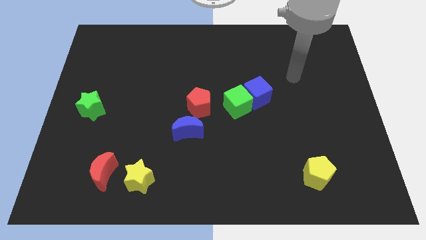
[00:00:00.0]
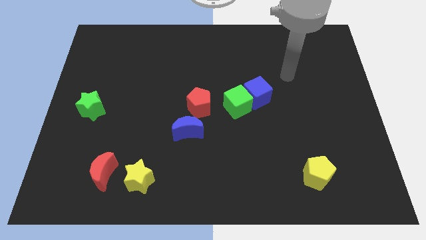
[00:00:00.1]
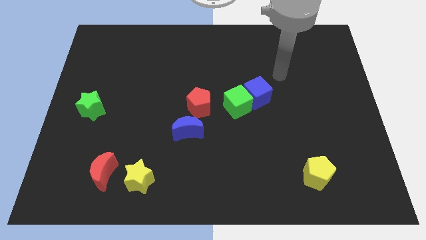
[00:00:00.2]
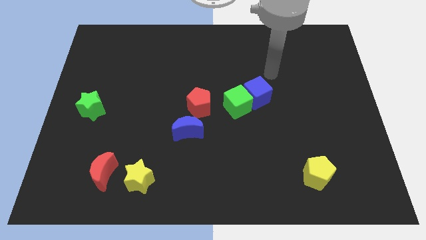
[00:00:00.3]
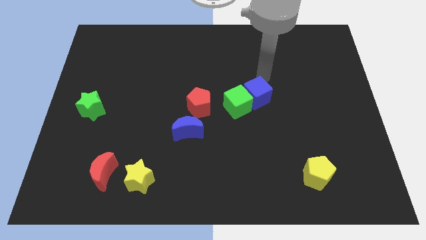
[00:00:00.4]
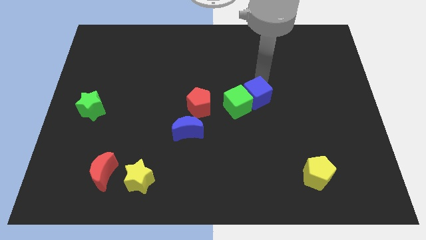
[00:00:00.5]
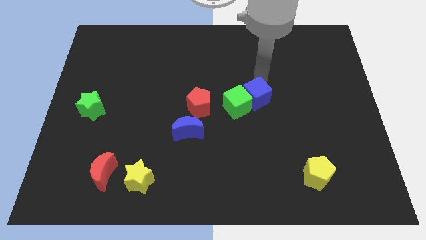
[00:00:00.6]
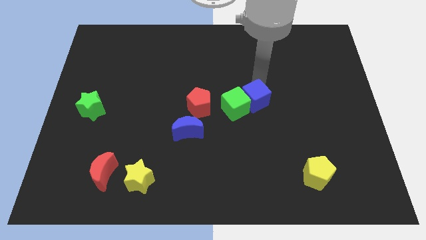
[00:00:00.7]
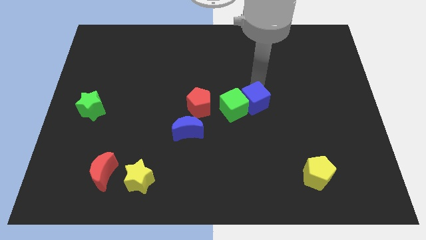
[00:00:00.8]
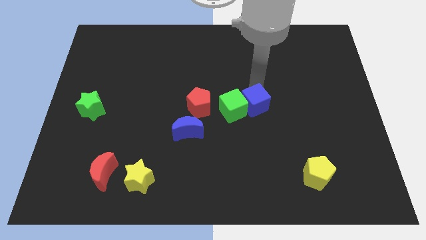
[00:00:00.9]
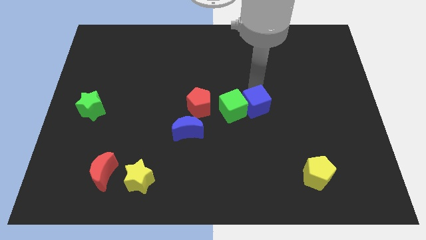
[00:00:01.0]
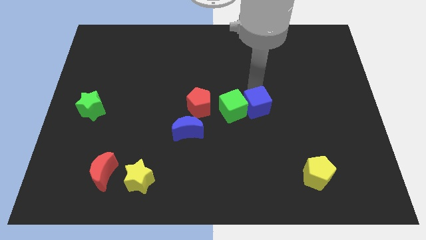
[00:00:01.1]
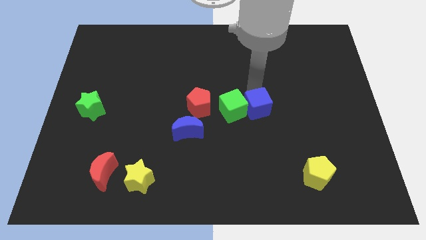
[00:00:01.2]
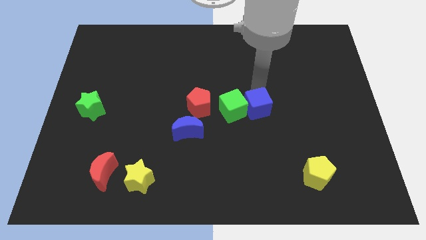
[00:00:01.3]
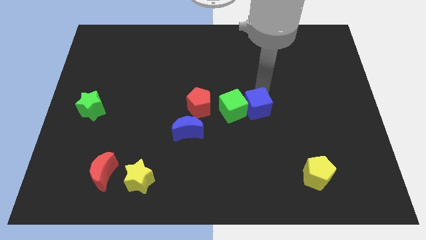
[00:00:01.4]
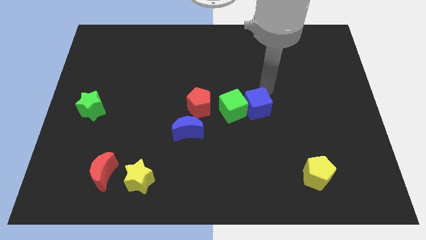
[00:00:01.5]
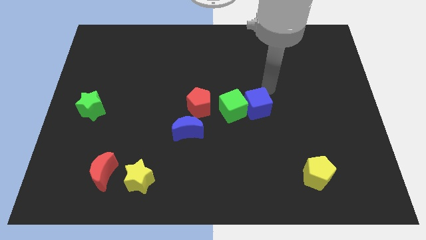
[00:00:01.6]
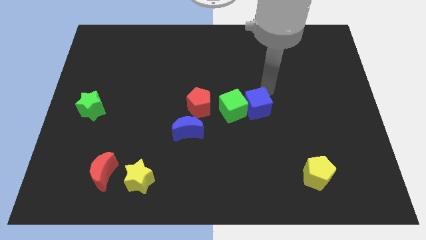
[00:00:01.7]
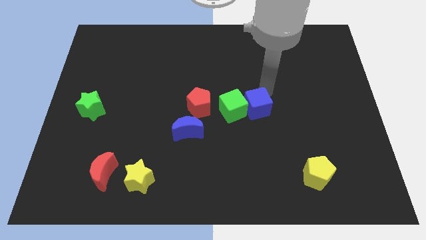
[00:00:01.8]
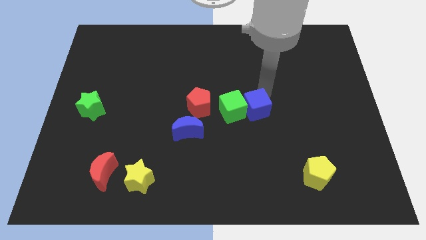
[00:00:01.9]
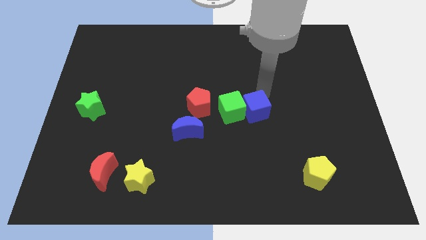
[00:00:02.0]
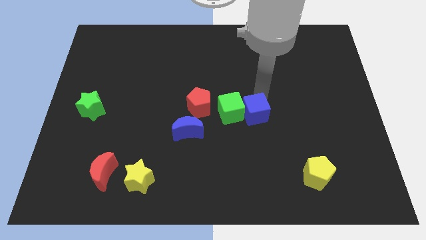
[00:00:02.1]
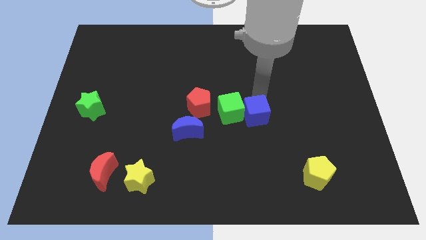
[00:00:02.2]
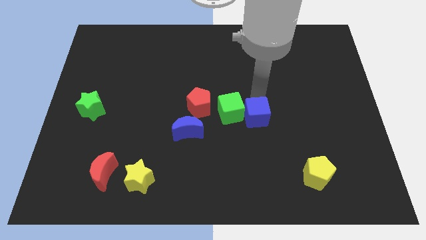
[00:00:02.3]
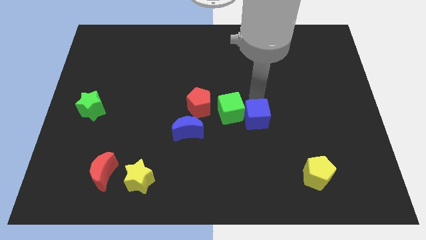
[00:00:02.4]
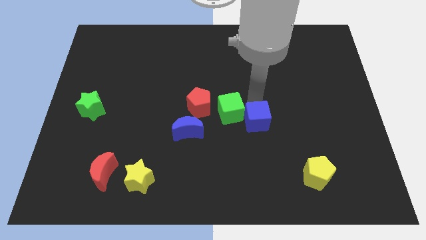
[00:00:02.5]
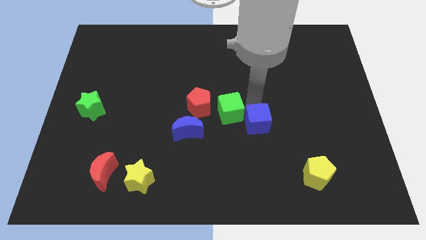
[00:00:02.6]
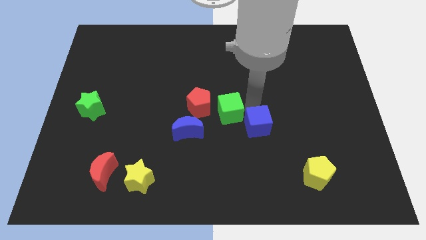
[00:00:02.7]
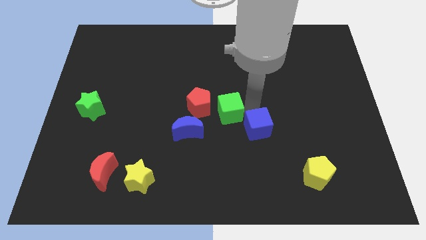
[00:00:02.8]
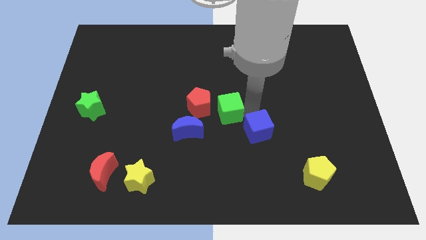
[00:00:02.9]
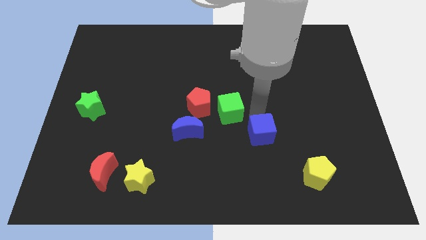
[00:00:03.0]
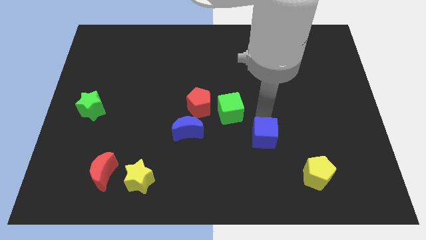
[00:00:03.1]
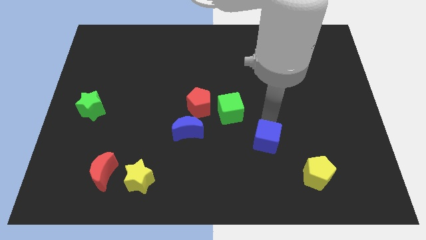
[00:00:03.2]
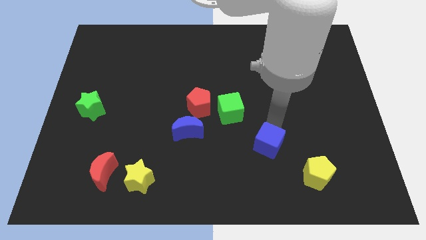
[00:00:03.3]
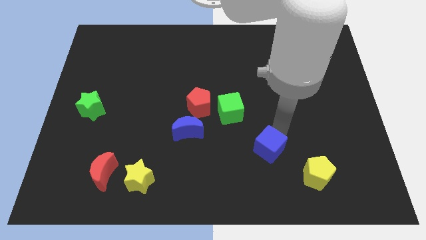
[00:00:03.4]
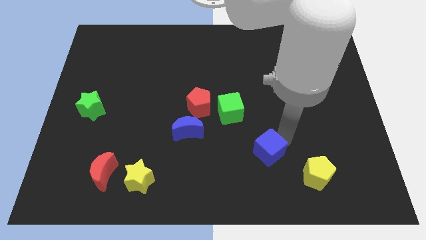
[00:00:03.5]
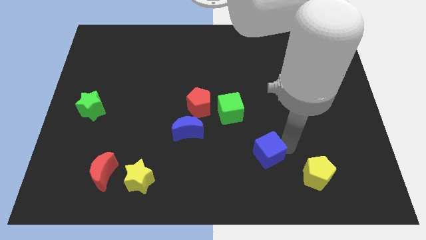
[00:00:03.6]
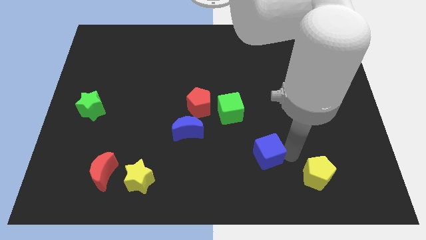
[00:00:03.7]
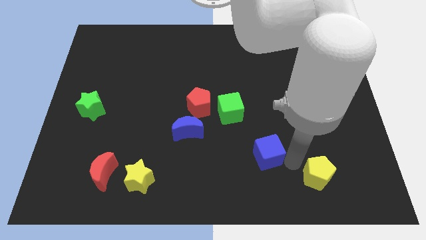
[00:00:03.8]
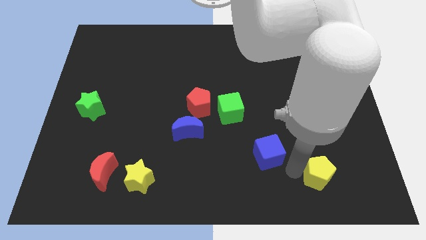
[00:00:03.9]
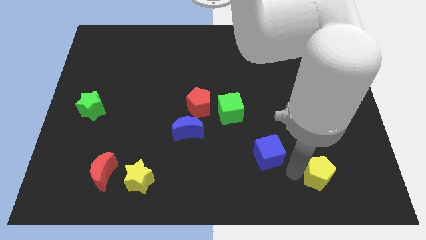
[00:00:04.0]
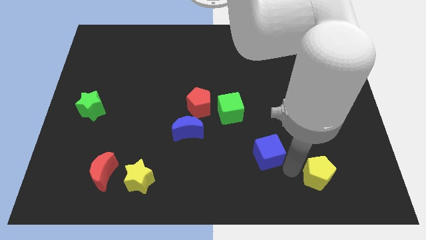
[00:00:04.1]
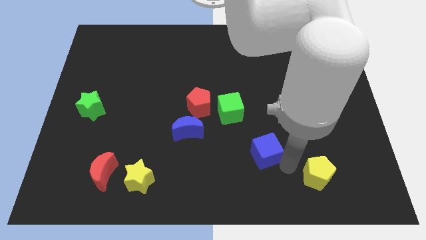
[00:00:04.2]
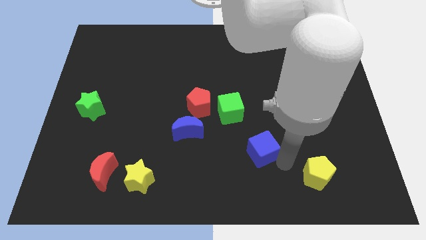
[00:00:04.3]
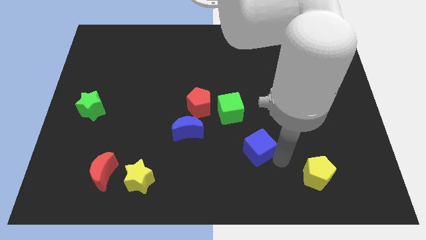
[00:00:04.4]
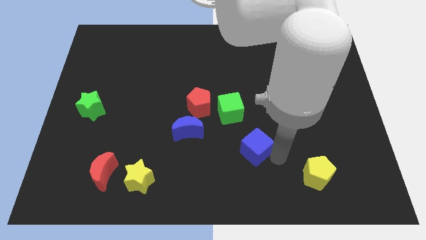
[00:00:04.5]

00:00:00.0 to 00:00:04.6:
slide the blue cube a little bit downwards and then to the left

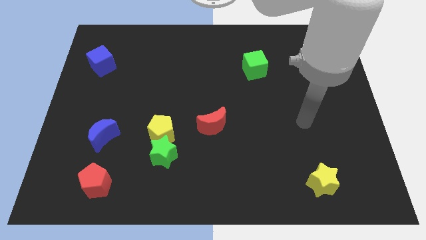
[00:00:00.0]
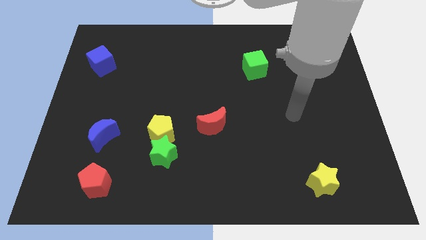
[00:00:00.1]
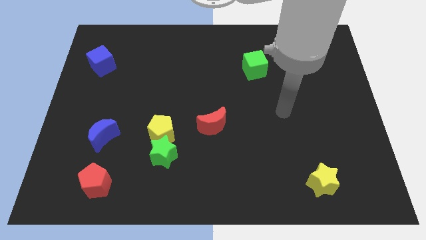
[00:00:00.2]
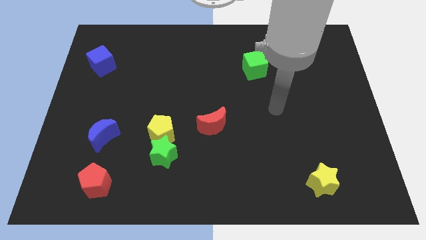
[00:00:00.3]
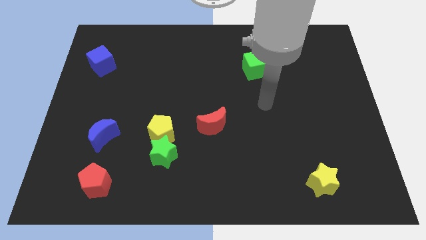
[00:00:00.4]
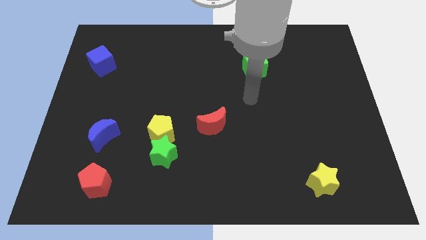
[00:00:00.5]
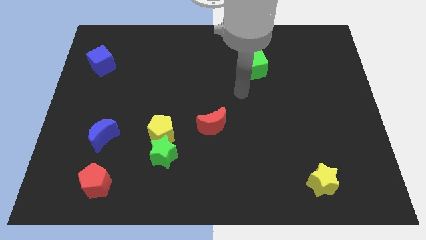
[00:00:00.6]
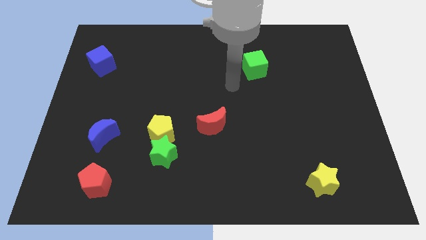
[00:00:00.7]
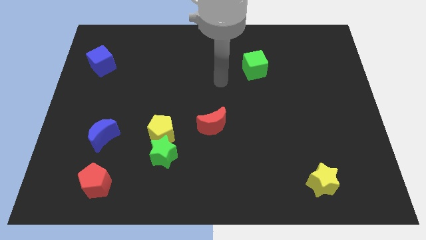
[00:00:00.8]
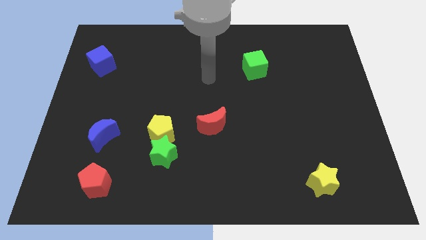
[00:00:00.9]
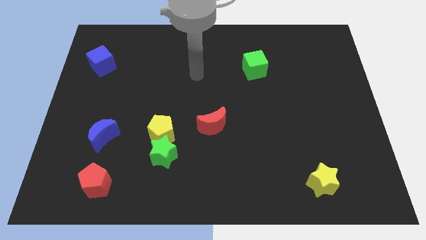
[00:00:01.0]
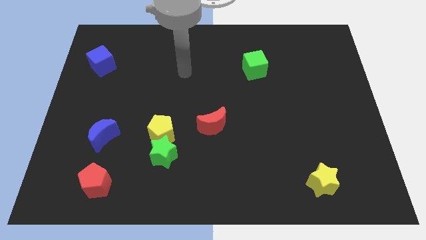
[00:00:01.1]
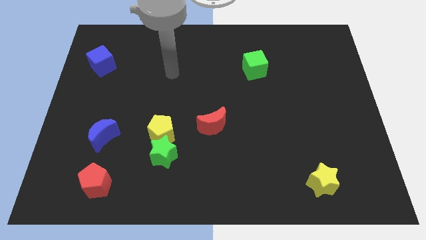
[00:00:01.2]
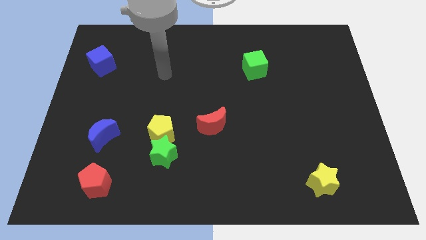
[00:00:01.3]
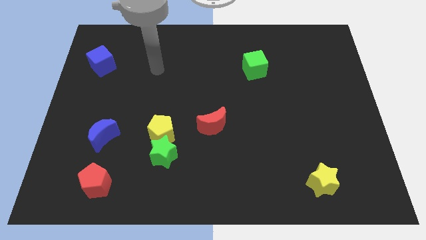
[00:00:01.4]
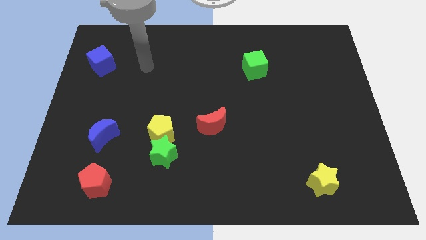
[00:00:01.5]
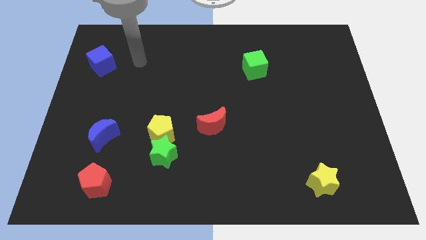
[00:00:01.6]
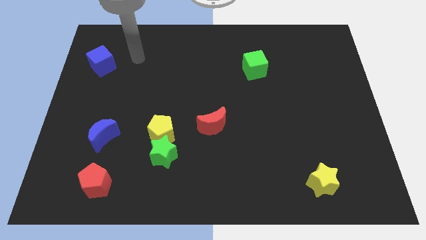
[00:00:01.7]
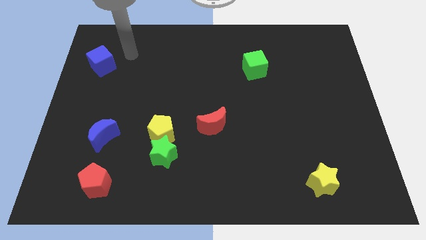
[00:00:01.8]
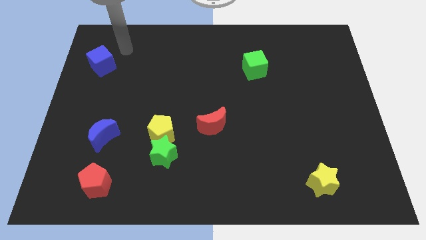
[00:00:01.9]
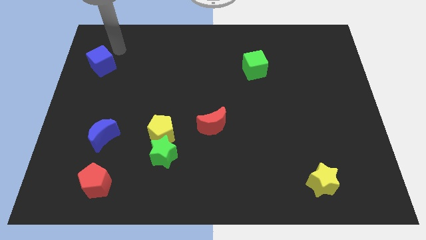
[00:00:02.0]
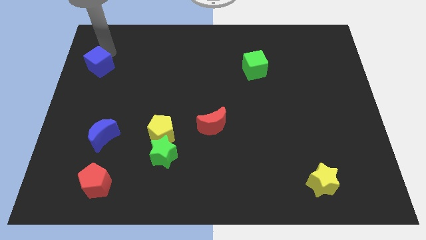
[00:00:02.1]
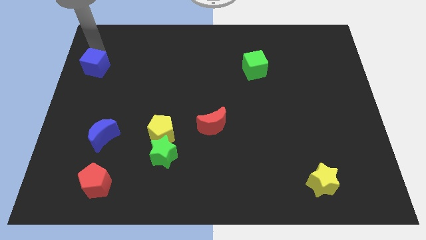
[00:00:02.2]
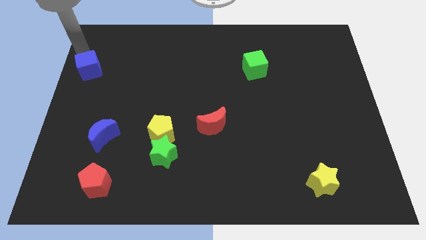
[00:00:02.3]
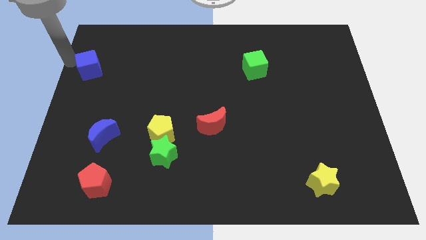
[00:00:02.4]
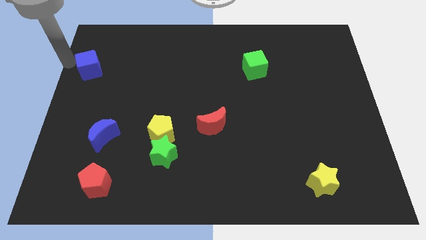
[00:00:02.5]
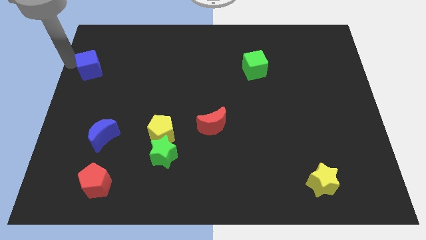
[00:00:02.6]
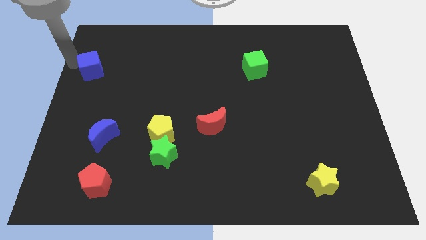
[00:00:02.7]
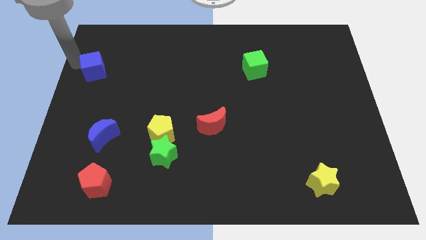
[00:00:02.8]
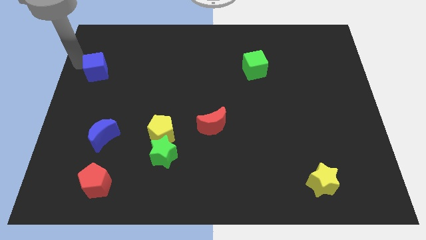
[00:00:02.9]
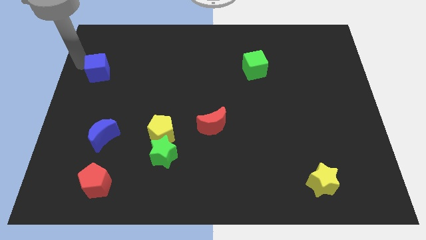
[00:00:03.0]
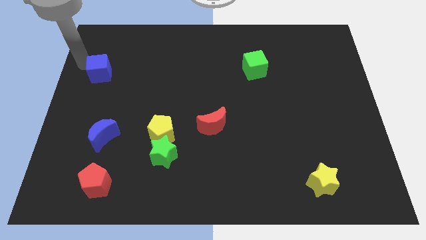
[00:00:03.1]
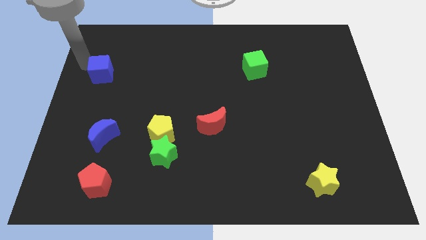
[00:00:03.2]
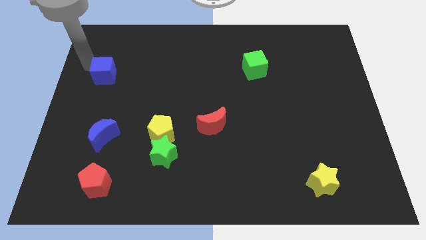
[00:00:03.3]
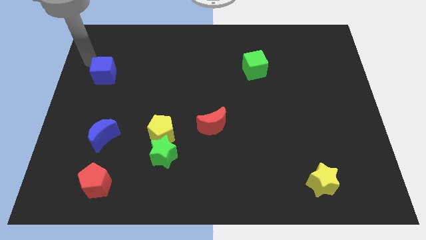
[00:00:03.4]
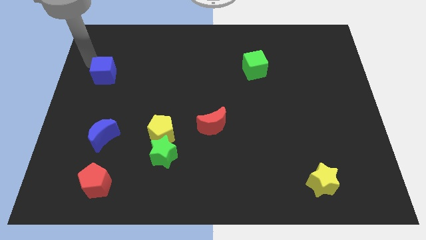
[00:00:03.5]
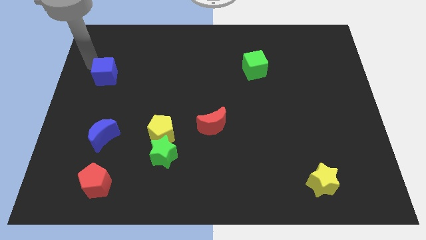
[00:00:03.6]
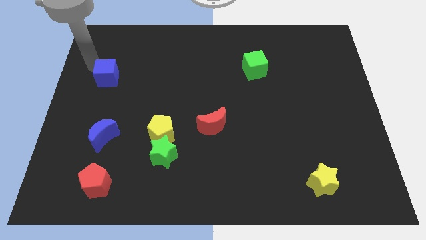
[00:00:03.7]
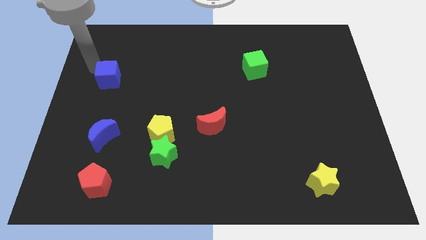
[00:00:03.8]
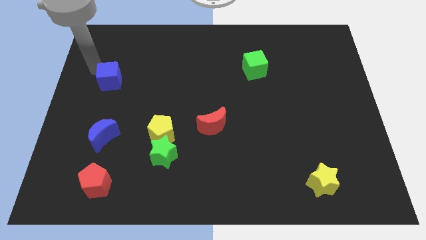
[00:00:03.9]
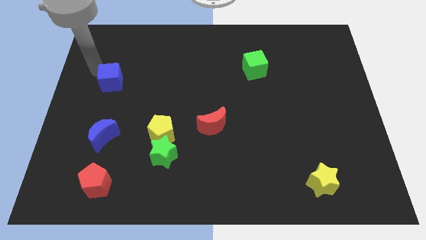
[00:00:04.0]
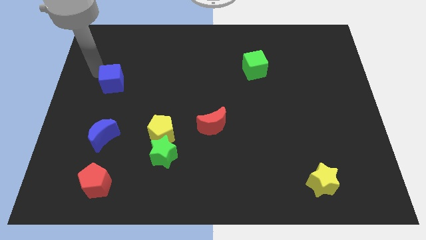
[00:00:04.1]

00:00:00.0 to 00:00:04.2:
slightly push the blue cube downwards and right diagonally
